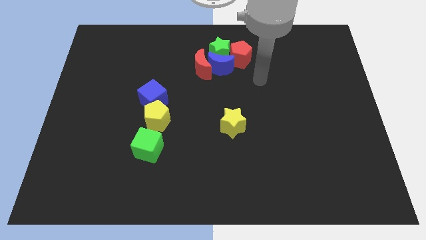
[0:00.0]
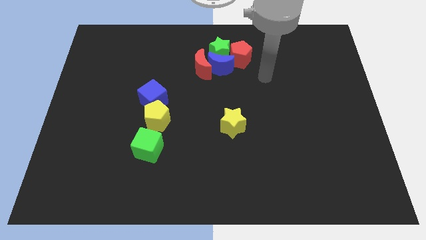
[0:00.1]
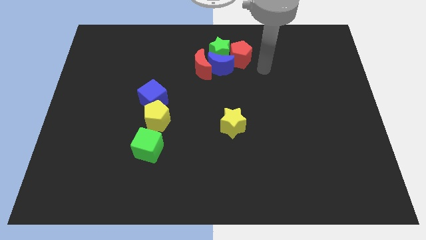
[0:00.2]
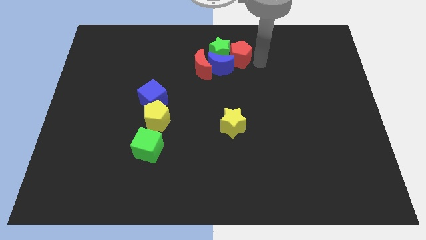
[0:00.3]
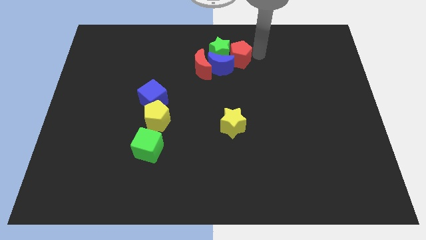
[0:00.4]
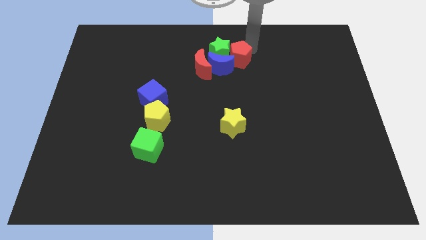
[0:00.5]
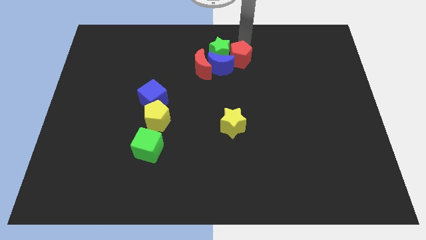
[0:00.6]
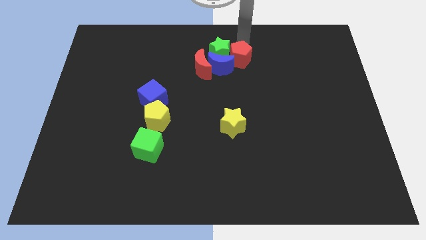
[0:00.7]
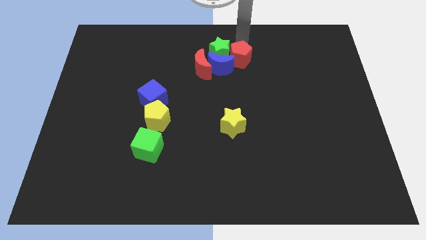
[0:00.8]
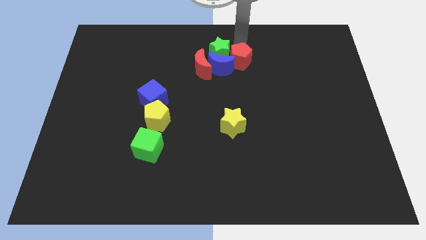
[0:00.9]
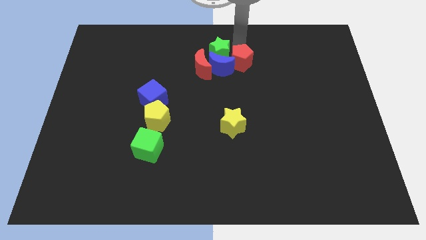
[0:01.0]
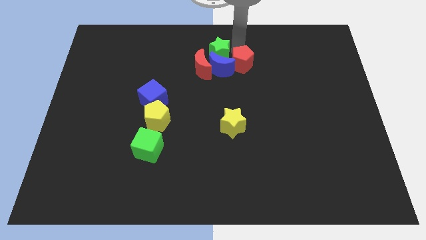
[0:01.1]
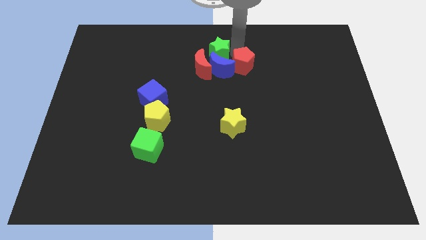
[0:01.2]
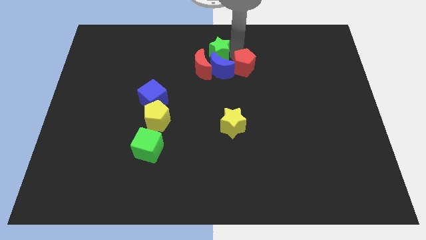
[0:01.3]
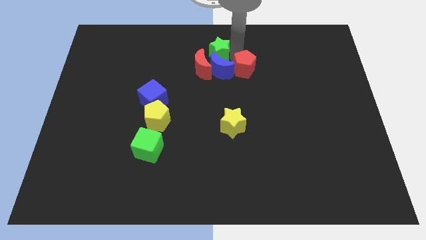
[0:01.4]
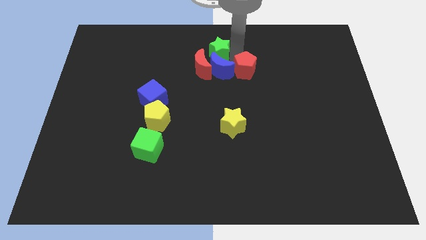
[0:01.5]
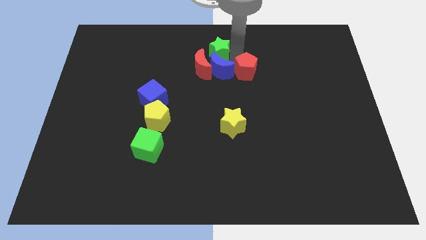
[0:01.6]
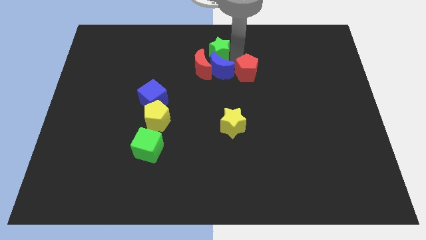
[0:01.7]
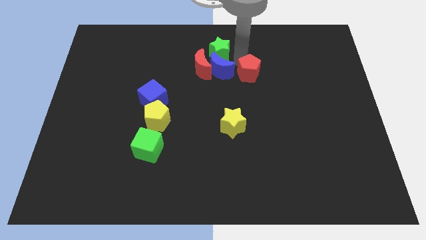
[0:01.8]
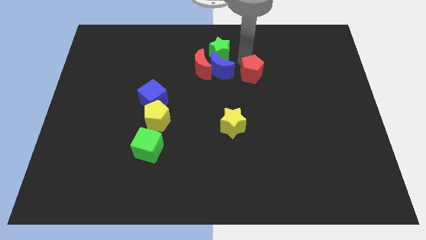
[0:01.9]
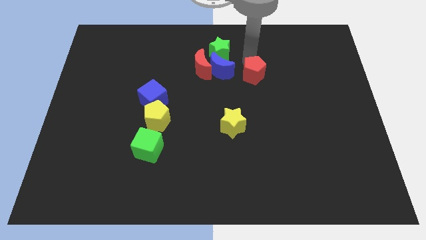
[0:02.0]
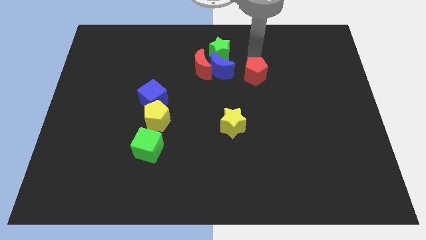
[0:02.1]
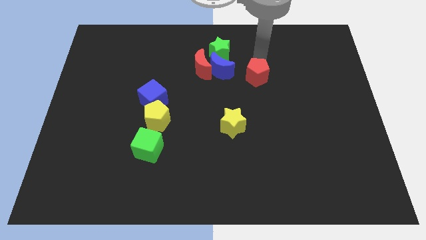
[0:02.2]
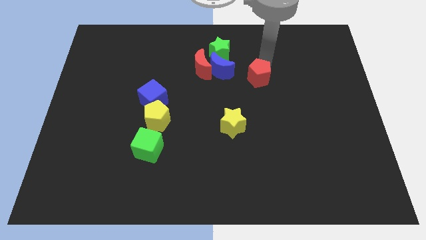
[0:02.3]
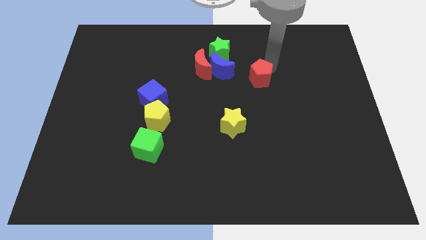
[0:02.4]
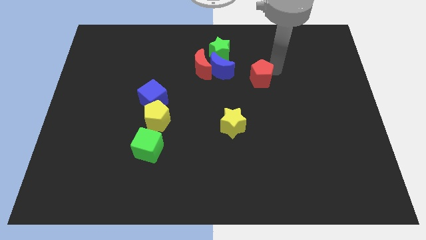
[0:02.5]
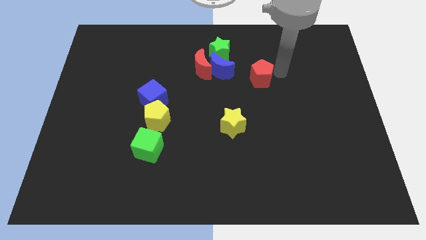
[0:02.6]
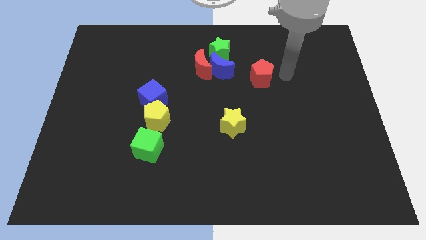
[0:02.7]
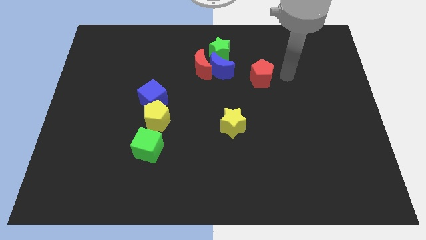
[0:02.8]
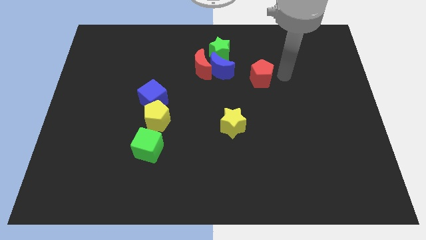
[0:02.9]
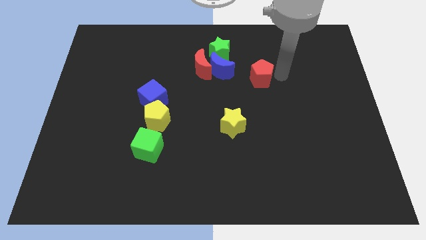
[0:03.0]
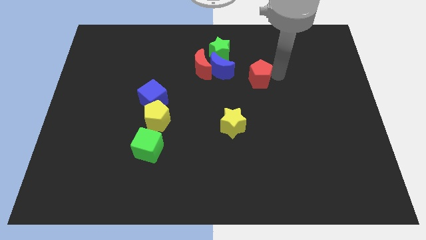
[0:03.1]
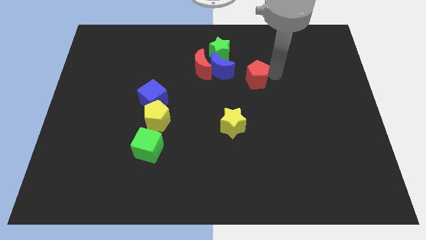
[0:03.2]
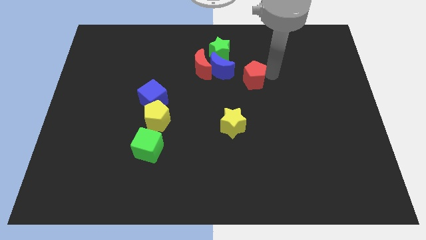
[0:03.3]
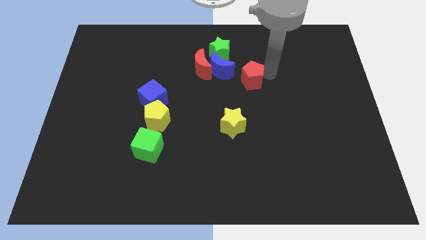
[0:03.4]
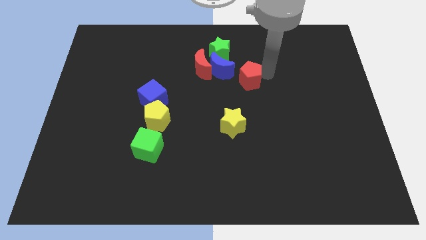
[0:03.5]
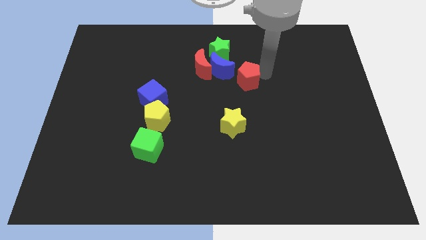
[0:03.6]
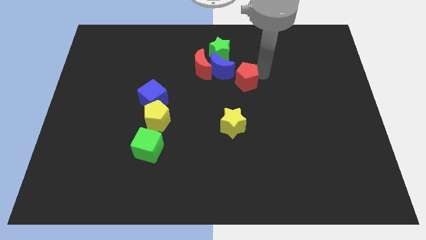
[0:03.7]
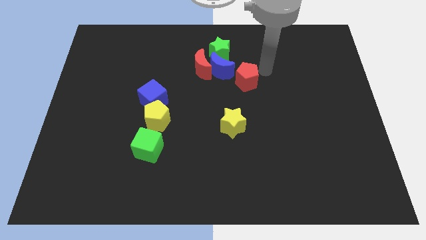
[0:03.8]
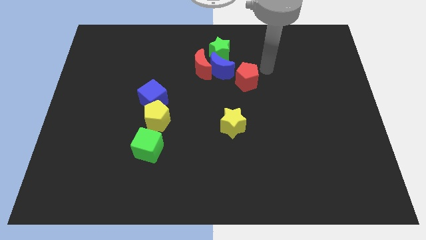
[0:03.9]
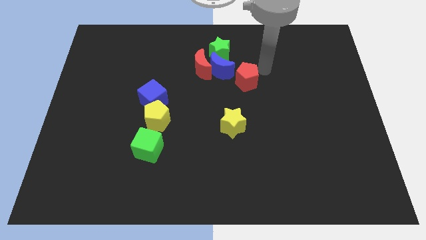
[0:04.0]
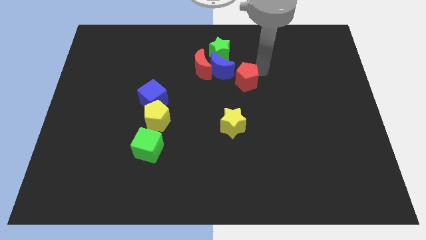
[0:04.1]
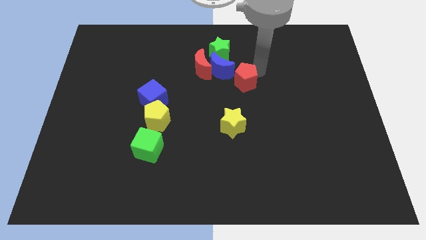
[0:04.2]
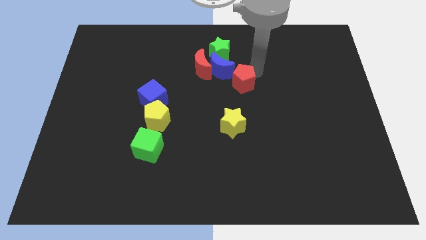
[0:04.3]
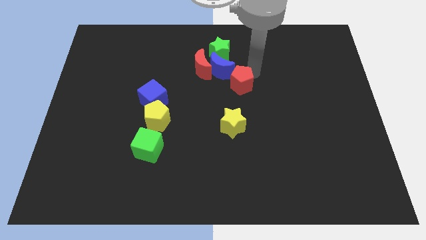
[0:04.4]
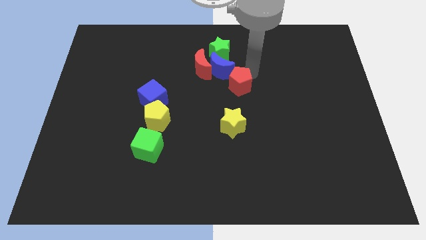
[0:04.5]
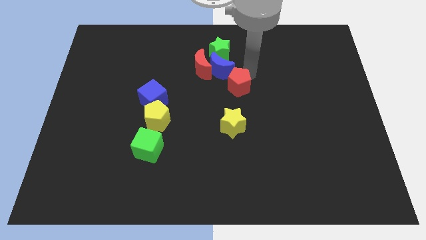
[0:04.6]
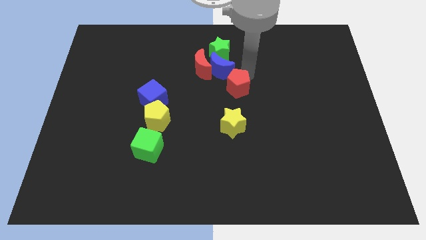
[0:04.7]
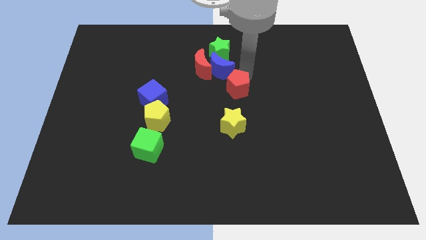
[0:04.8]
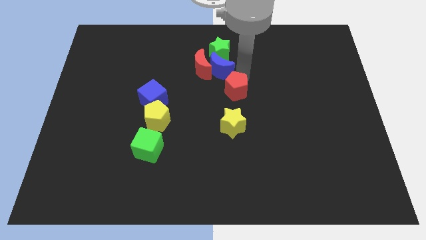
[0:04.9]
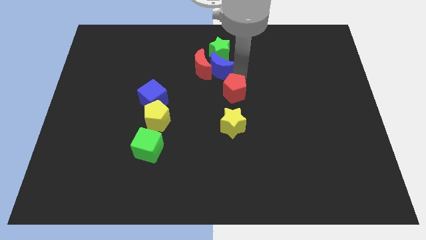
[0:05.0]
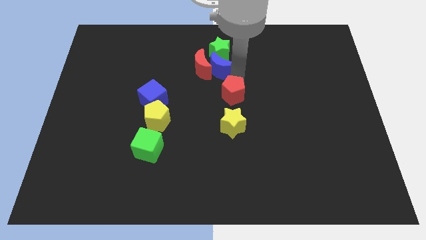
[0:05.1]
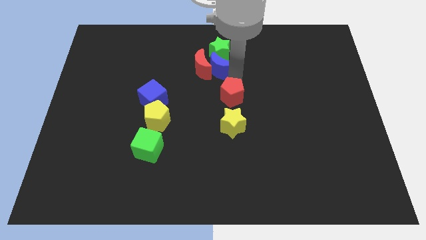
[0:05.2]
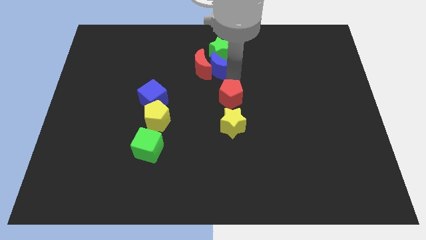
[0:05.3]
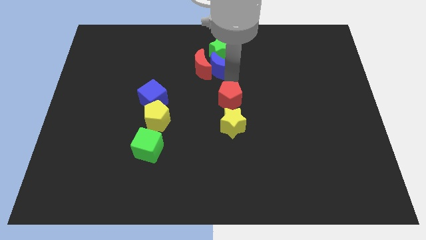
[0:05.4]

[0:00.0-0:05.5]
put the red pentagon diagonally up and to the left of the yellow star

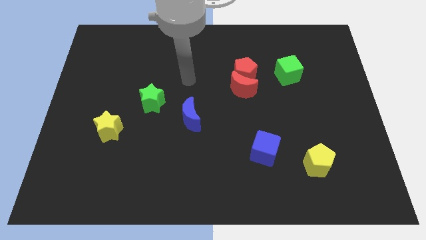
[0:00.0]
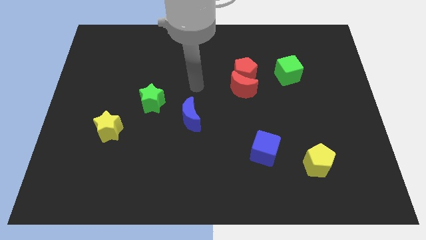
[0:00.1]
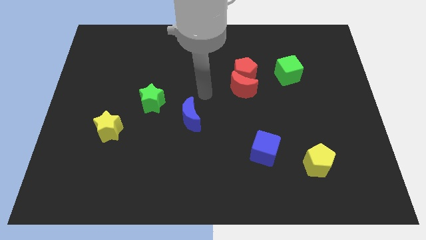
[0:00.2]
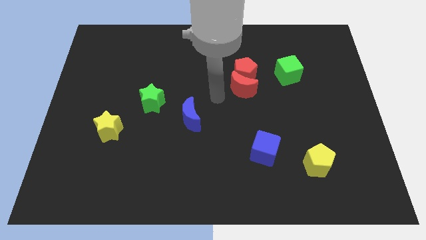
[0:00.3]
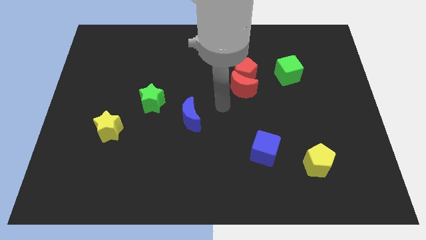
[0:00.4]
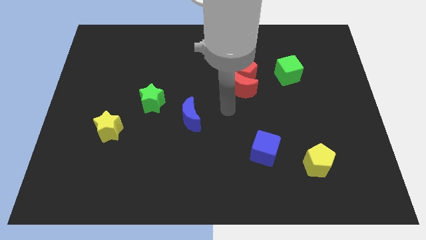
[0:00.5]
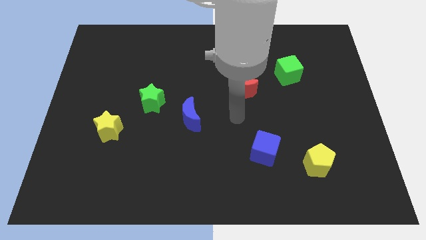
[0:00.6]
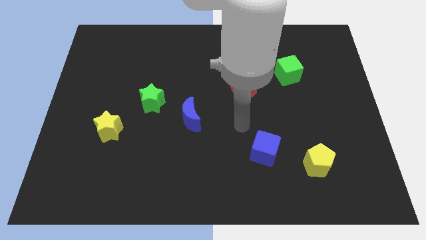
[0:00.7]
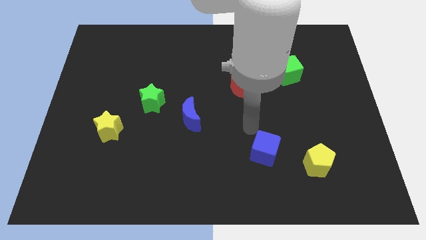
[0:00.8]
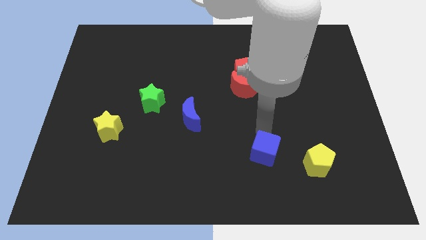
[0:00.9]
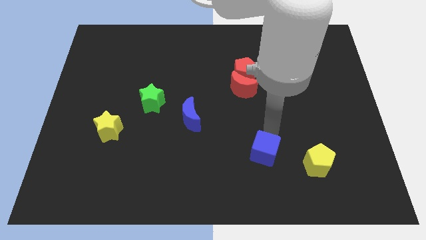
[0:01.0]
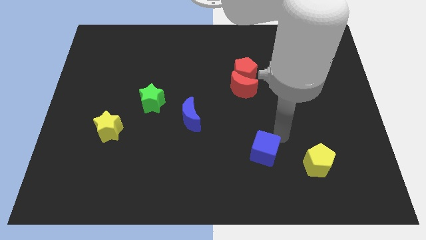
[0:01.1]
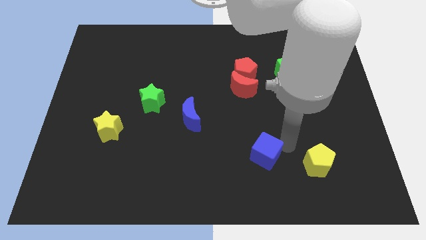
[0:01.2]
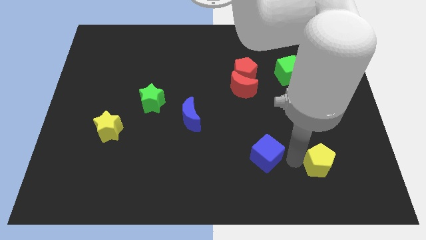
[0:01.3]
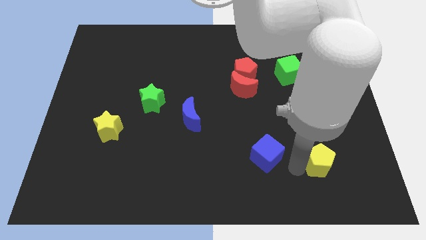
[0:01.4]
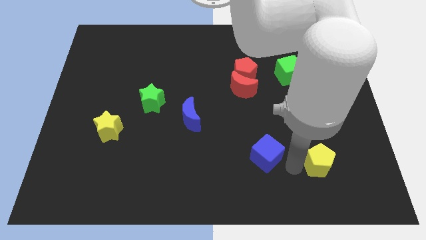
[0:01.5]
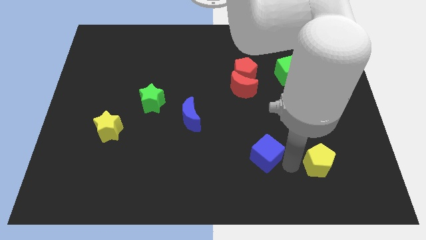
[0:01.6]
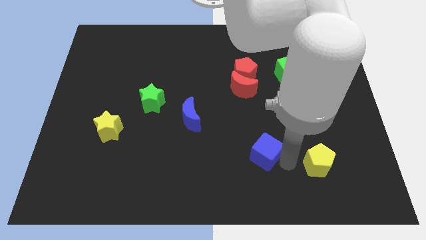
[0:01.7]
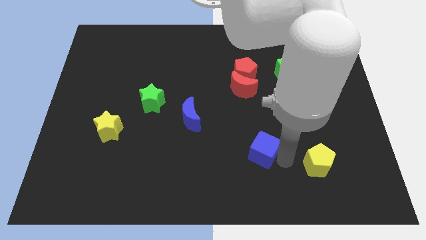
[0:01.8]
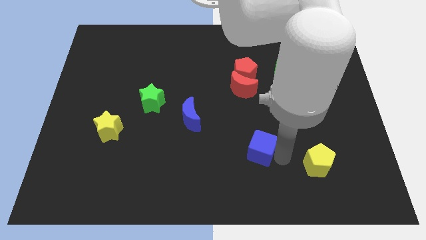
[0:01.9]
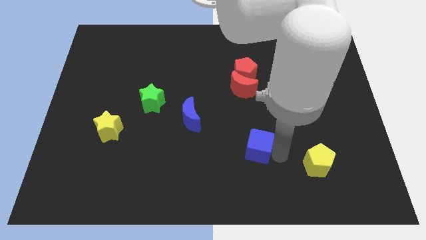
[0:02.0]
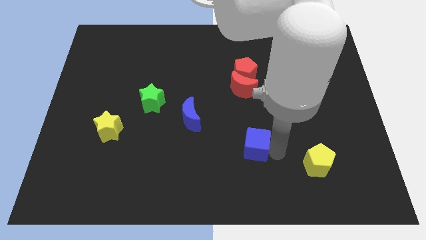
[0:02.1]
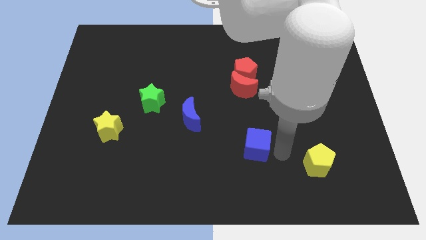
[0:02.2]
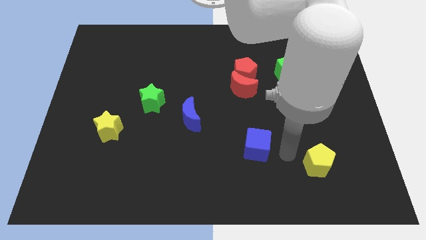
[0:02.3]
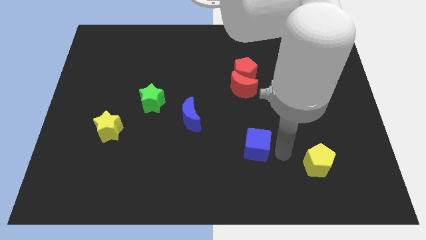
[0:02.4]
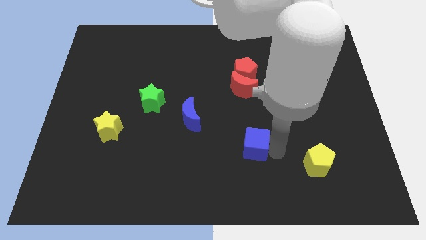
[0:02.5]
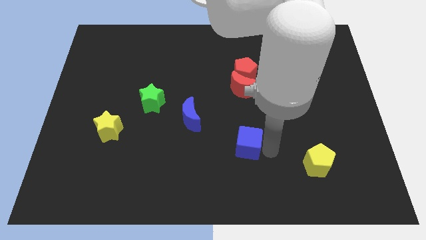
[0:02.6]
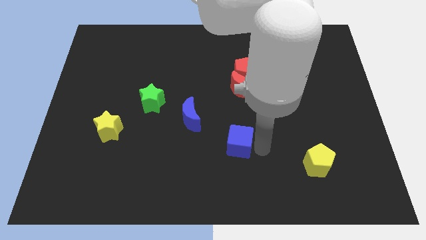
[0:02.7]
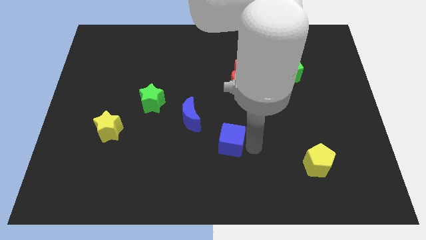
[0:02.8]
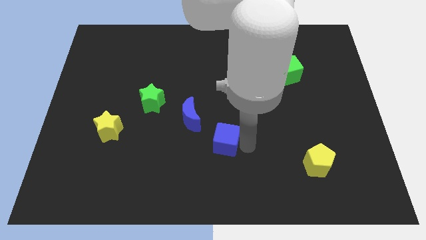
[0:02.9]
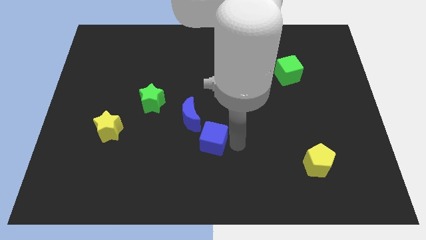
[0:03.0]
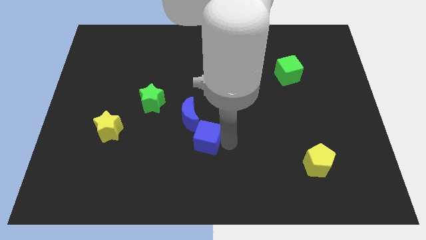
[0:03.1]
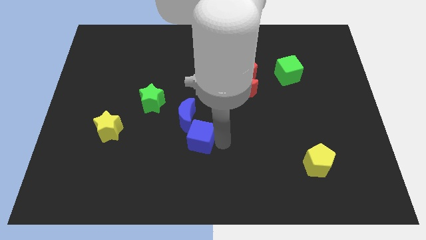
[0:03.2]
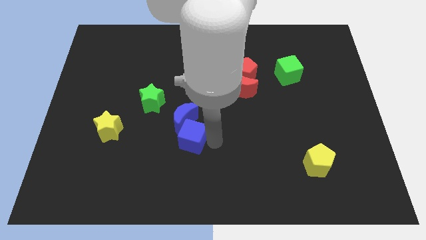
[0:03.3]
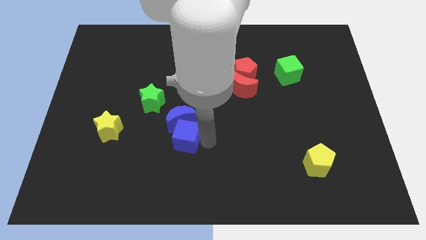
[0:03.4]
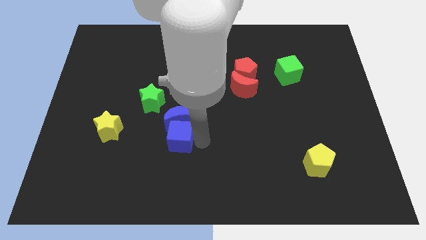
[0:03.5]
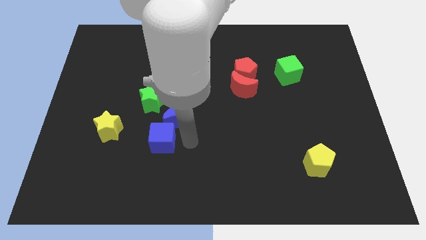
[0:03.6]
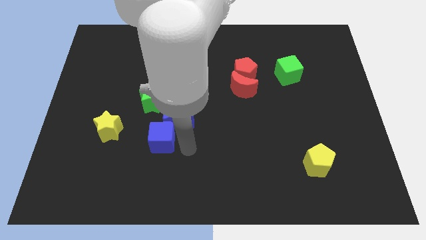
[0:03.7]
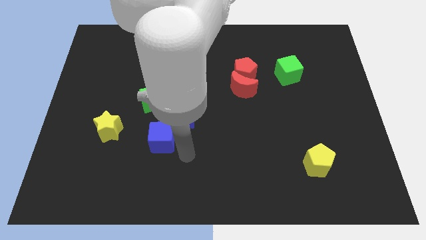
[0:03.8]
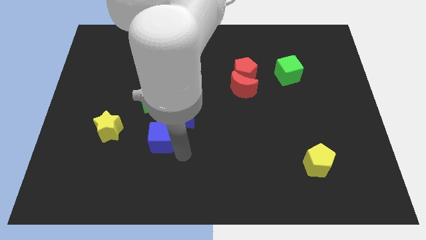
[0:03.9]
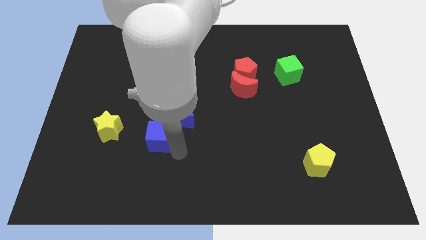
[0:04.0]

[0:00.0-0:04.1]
slide the blue cube to the left side of the blue moon
